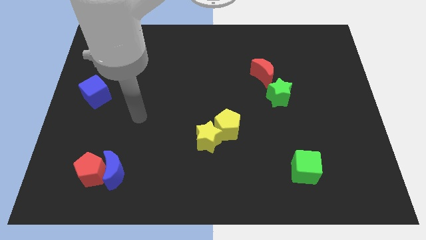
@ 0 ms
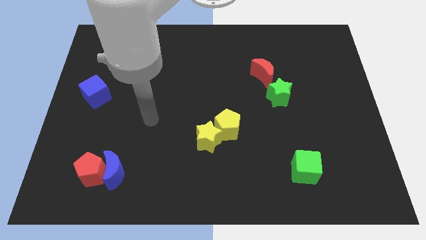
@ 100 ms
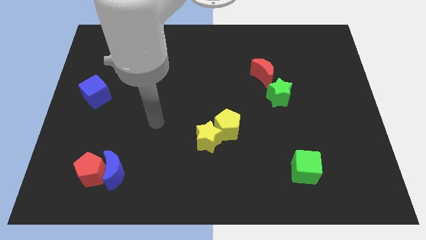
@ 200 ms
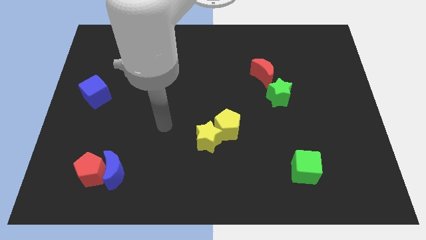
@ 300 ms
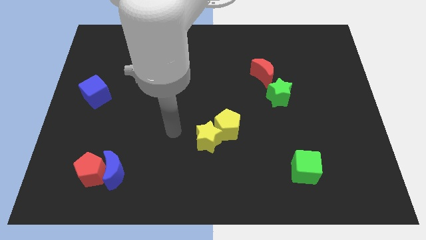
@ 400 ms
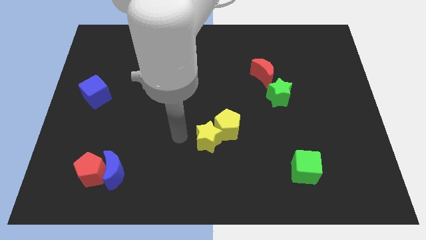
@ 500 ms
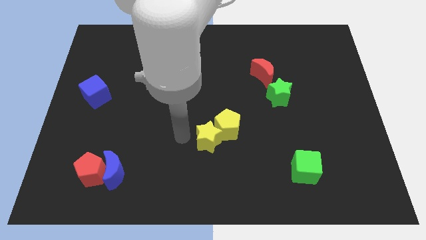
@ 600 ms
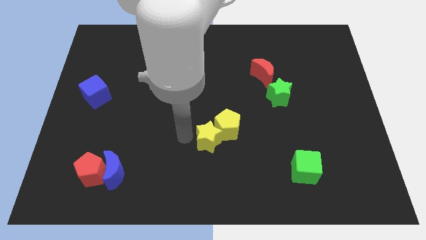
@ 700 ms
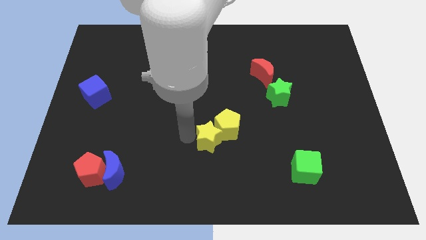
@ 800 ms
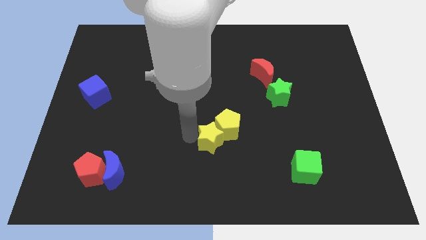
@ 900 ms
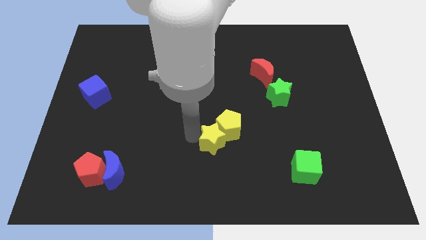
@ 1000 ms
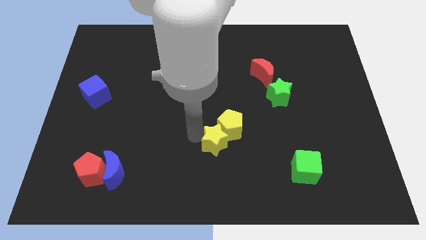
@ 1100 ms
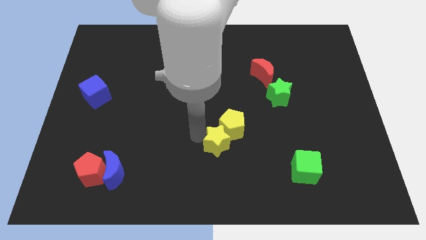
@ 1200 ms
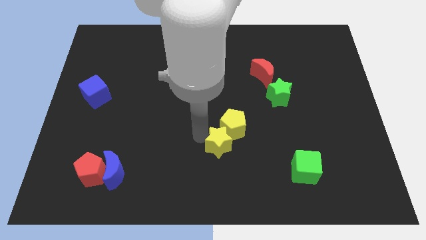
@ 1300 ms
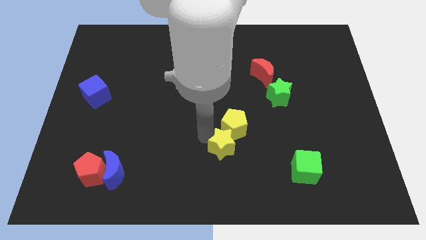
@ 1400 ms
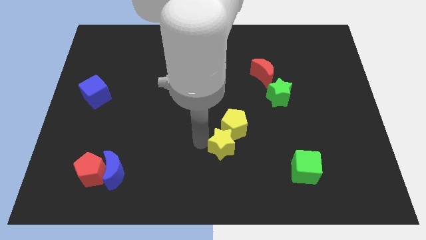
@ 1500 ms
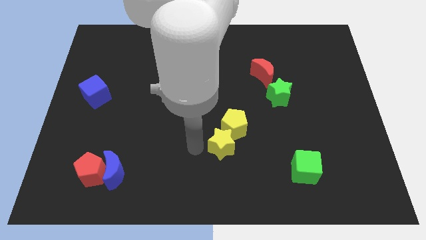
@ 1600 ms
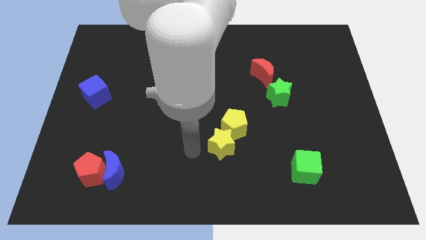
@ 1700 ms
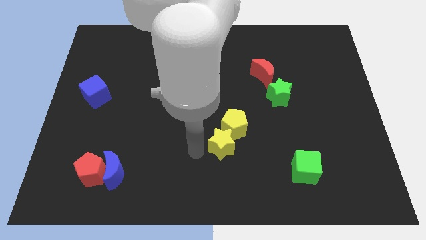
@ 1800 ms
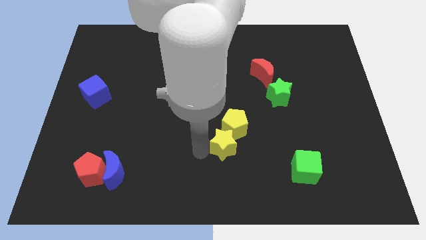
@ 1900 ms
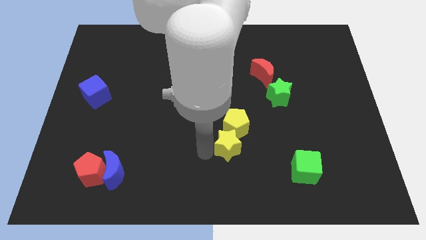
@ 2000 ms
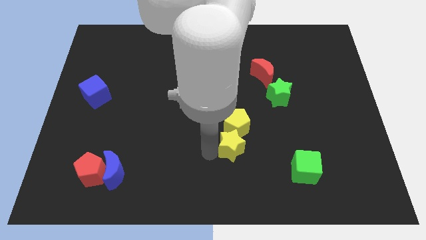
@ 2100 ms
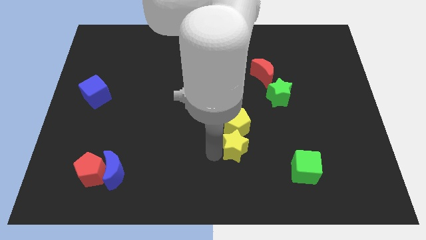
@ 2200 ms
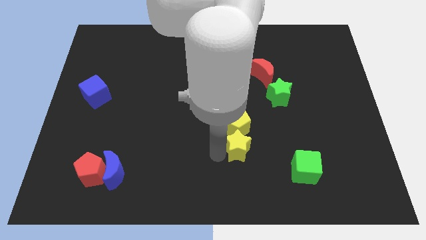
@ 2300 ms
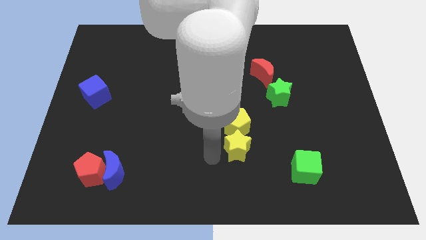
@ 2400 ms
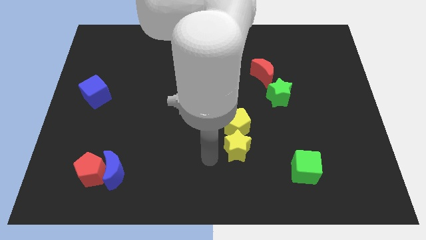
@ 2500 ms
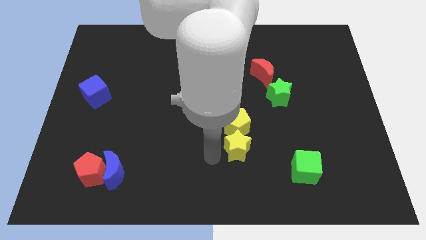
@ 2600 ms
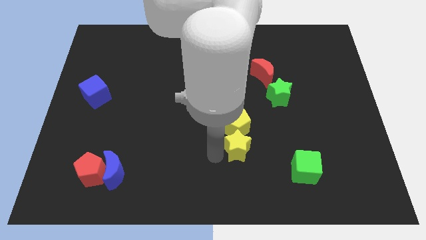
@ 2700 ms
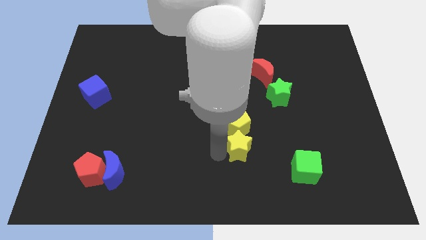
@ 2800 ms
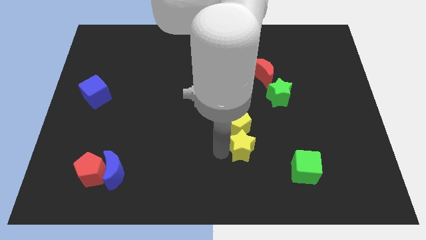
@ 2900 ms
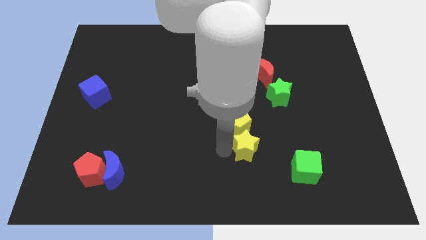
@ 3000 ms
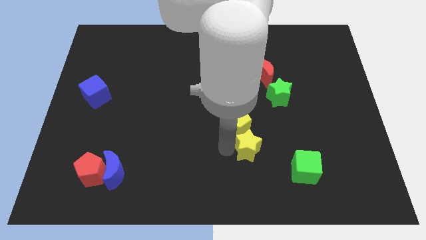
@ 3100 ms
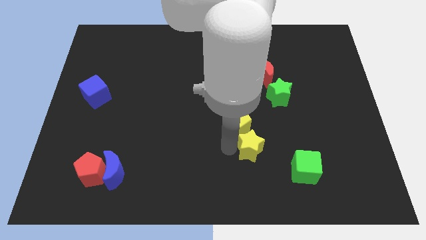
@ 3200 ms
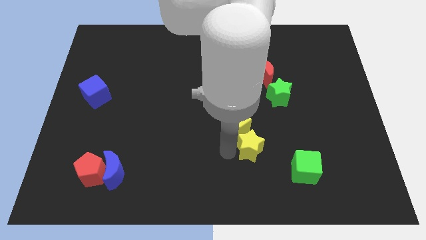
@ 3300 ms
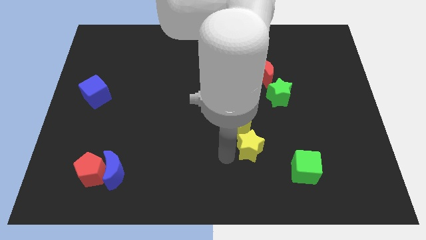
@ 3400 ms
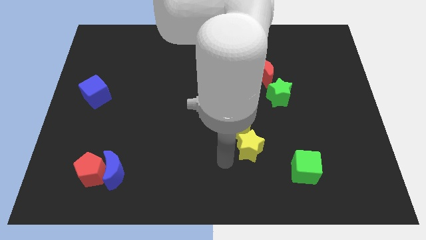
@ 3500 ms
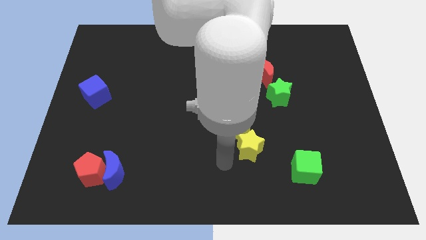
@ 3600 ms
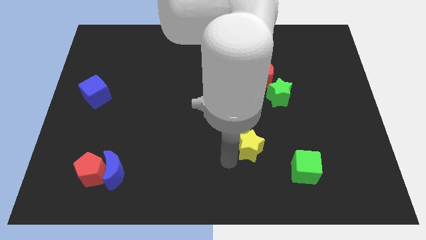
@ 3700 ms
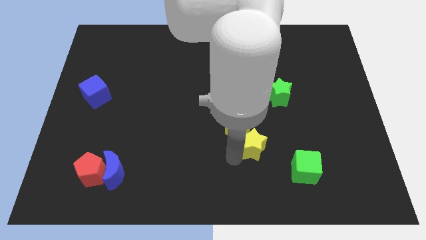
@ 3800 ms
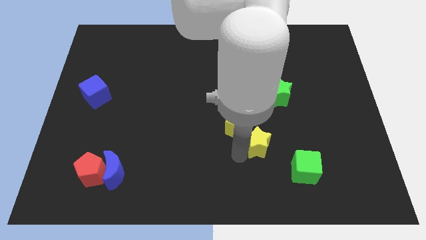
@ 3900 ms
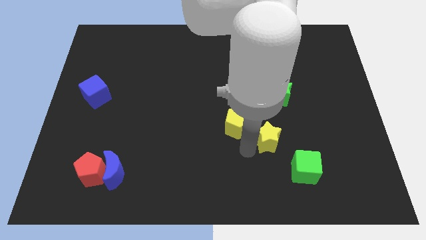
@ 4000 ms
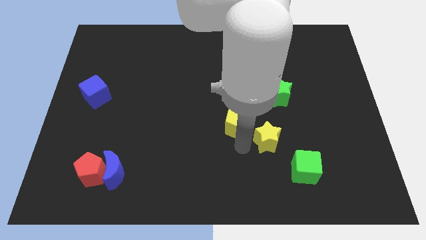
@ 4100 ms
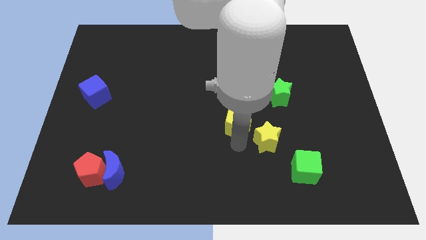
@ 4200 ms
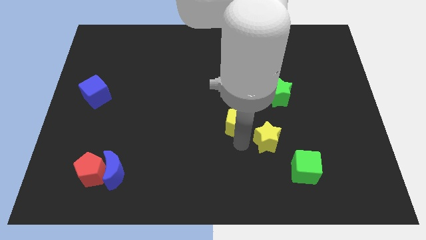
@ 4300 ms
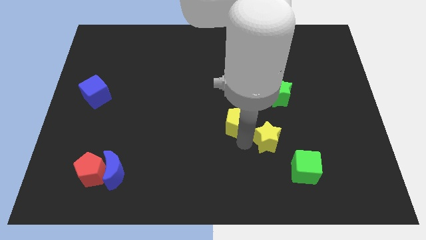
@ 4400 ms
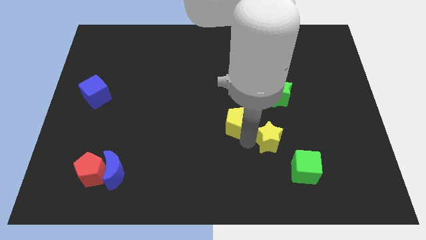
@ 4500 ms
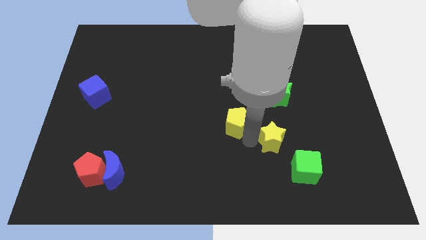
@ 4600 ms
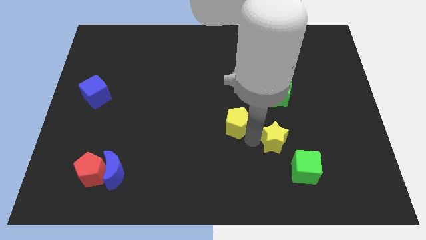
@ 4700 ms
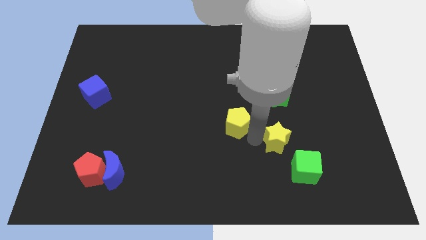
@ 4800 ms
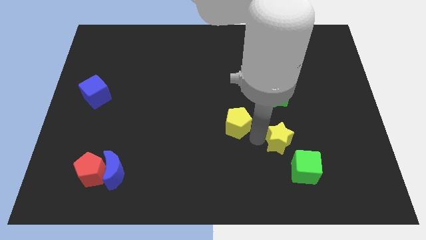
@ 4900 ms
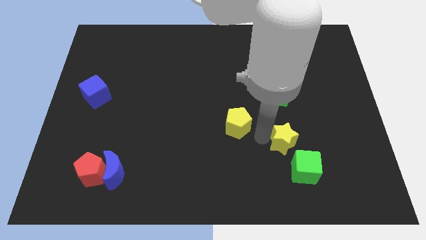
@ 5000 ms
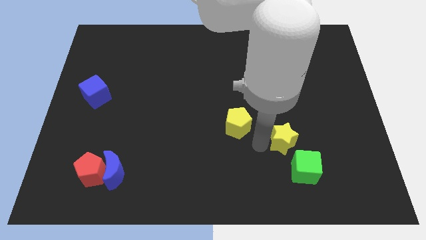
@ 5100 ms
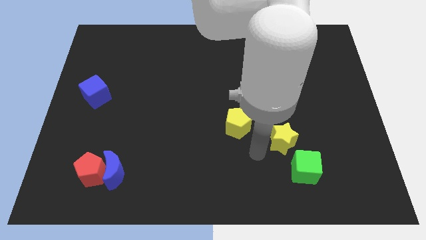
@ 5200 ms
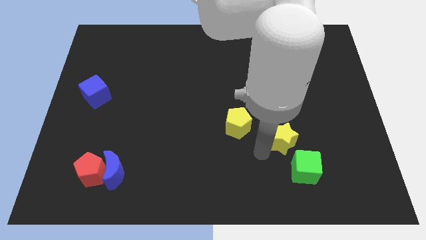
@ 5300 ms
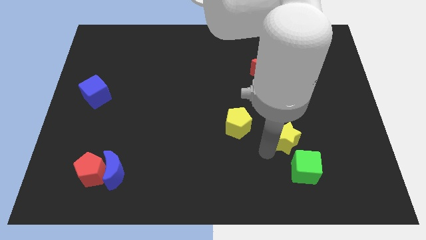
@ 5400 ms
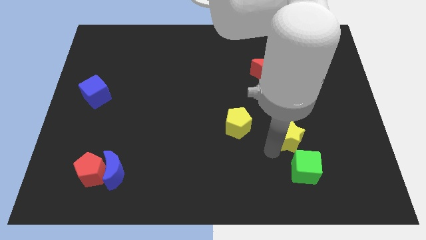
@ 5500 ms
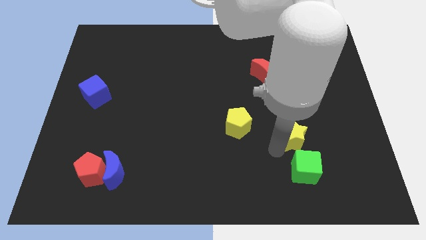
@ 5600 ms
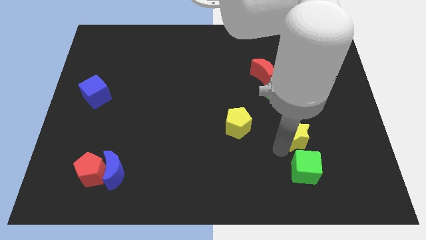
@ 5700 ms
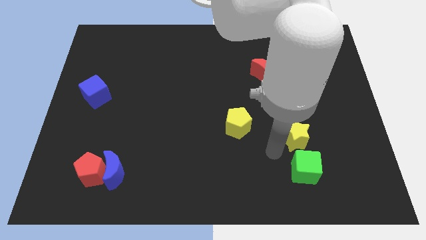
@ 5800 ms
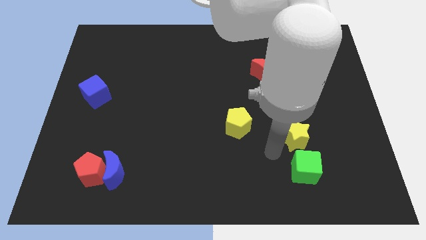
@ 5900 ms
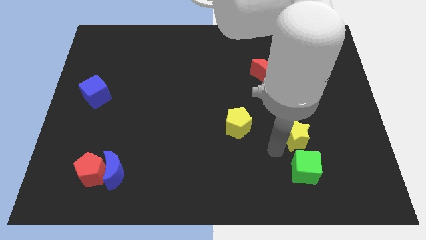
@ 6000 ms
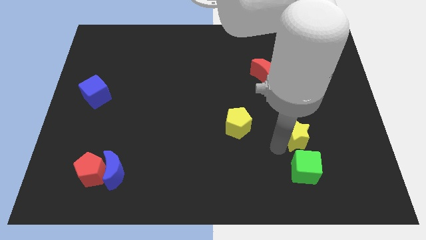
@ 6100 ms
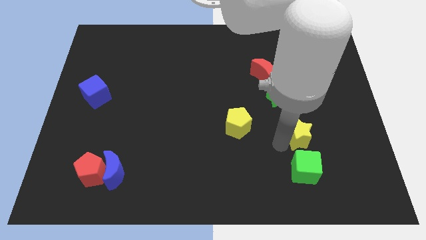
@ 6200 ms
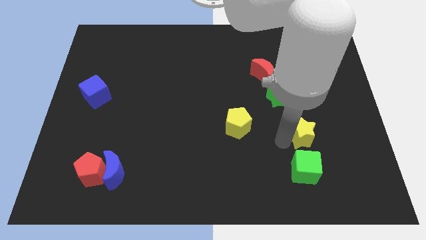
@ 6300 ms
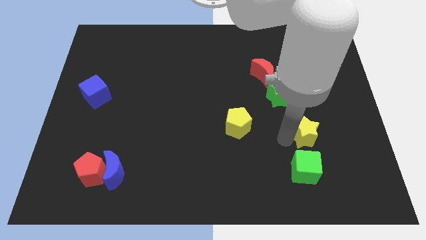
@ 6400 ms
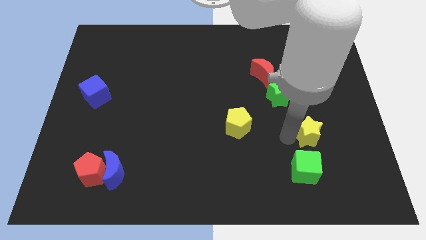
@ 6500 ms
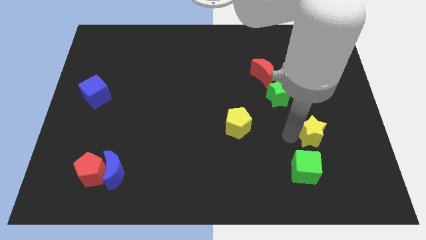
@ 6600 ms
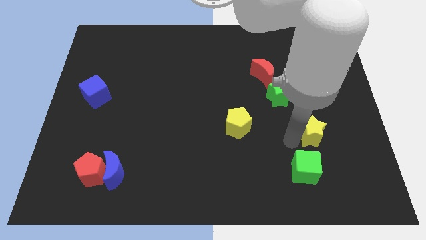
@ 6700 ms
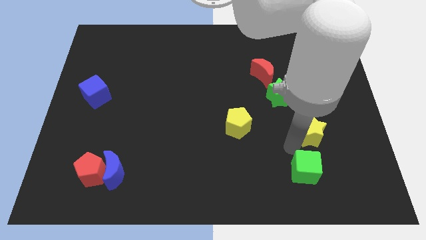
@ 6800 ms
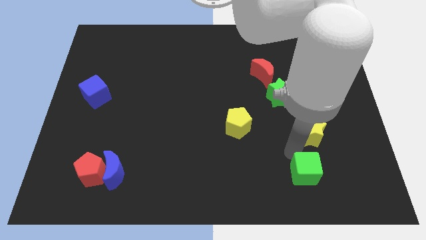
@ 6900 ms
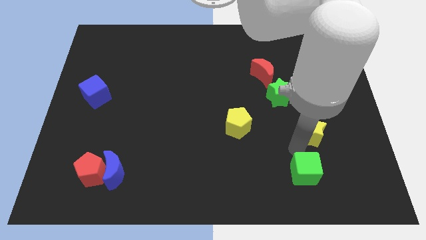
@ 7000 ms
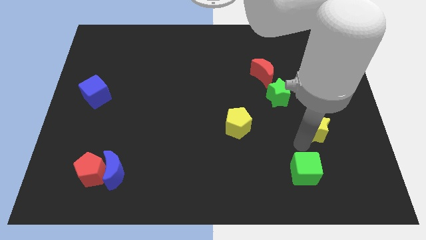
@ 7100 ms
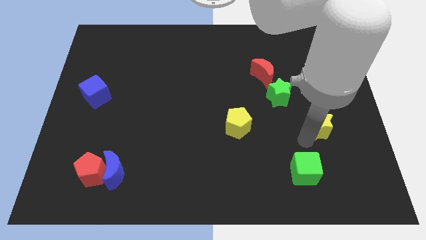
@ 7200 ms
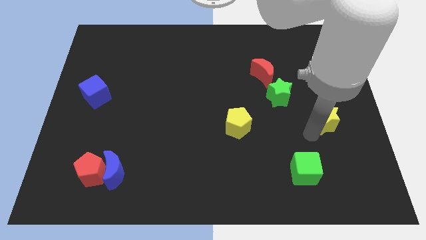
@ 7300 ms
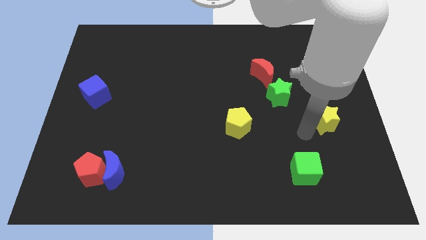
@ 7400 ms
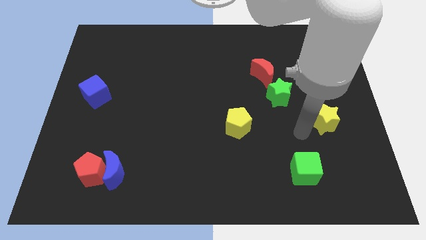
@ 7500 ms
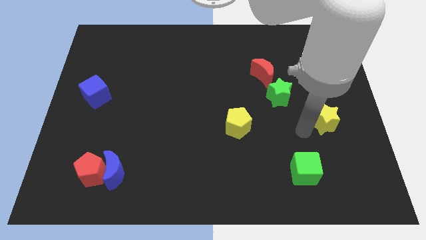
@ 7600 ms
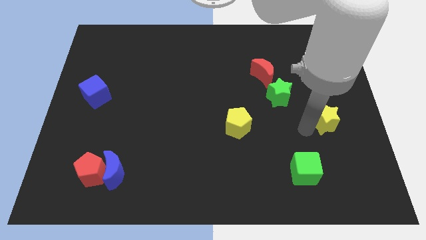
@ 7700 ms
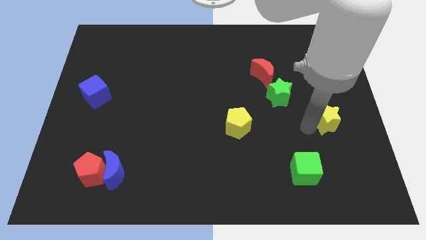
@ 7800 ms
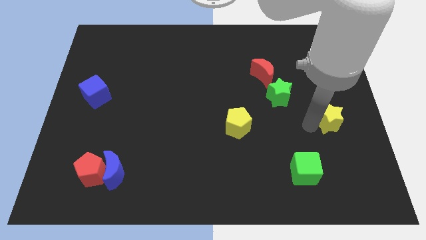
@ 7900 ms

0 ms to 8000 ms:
push the yellow star to the right side of the board
